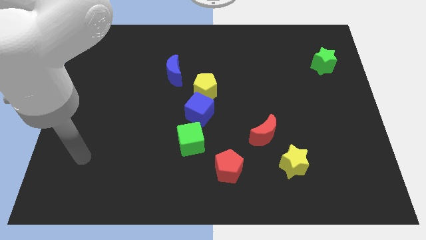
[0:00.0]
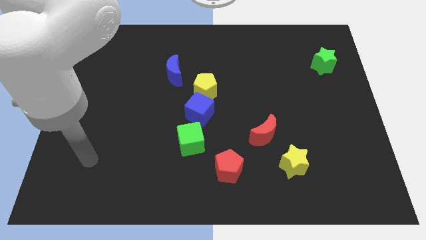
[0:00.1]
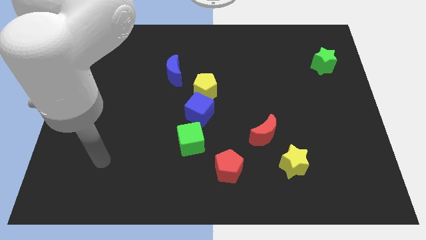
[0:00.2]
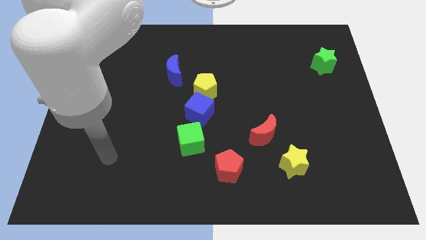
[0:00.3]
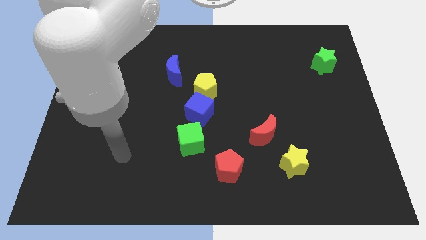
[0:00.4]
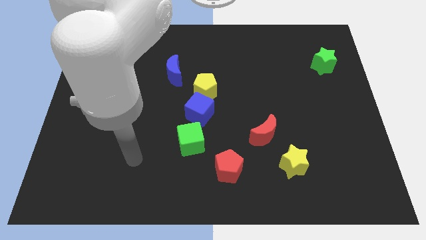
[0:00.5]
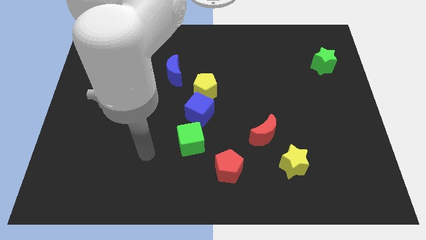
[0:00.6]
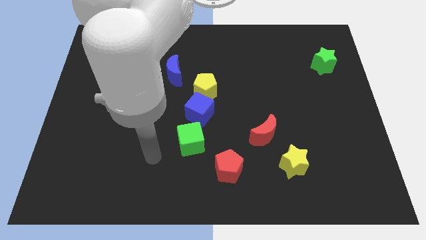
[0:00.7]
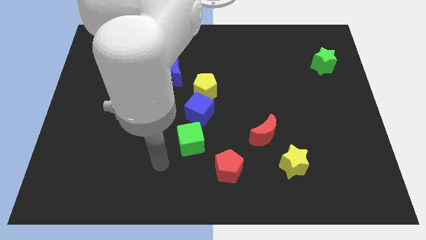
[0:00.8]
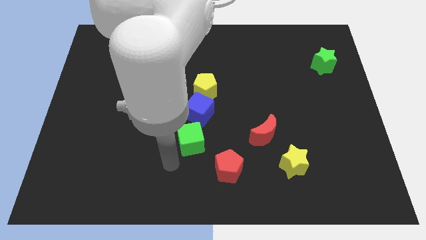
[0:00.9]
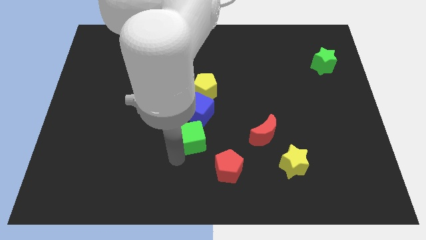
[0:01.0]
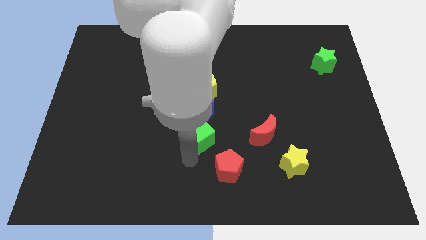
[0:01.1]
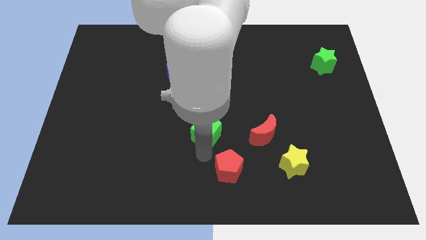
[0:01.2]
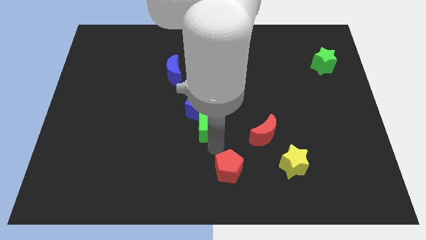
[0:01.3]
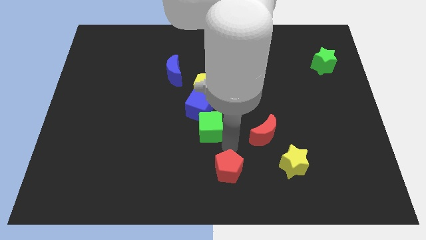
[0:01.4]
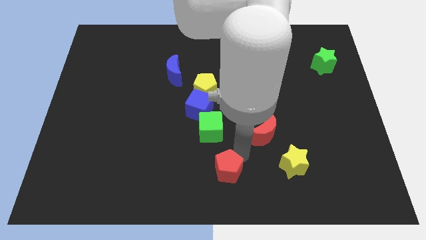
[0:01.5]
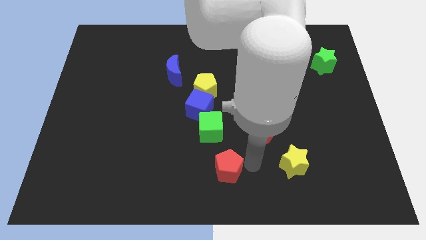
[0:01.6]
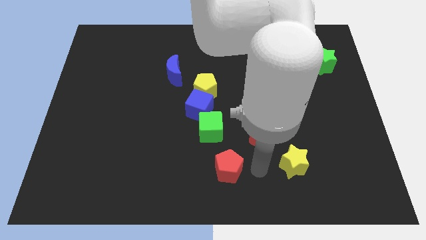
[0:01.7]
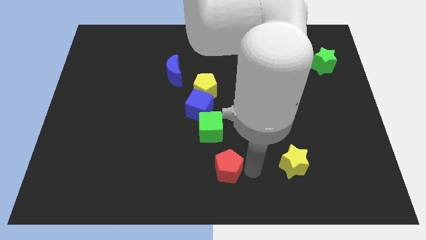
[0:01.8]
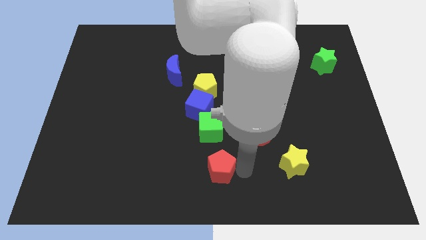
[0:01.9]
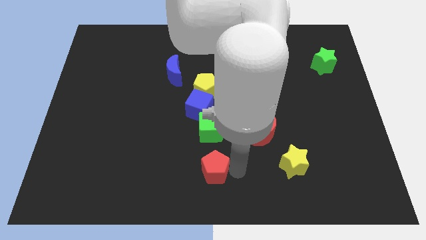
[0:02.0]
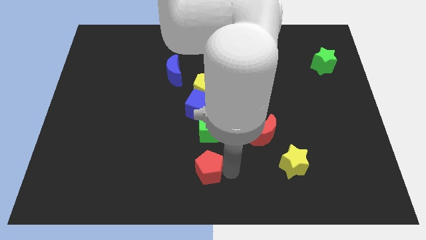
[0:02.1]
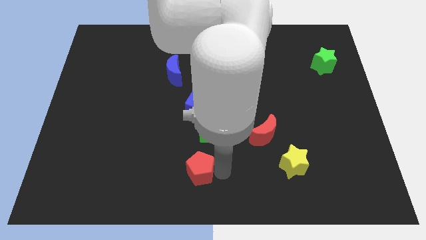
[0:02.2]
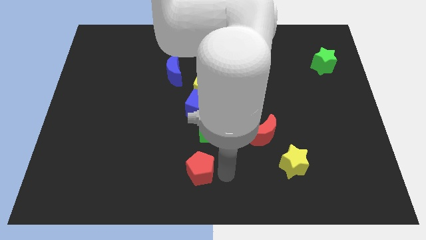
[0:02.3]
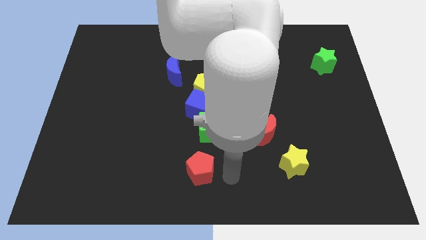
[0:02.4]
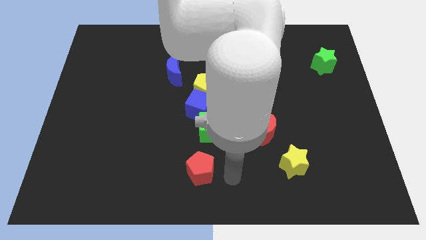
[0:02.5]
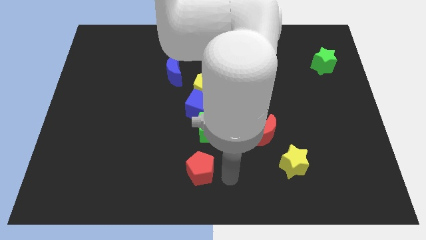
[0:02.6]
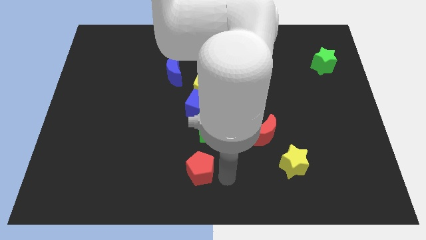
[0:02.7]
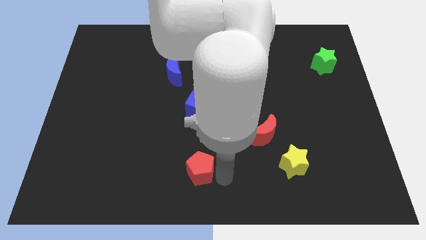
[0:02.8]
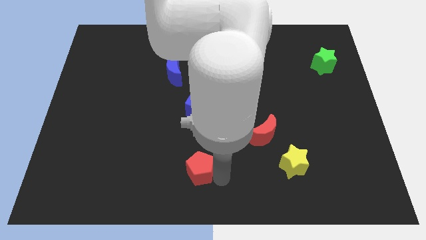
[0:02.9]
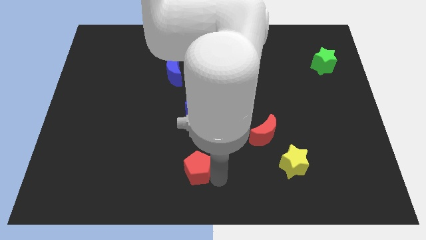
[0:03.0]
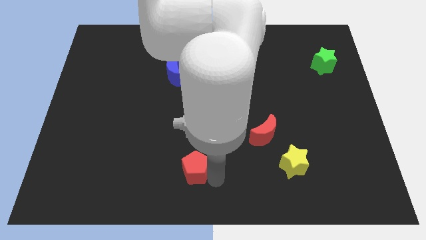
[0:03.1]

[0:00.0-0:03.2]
slightly move the red pentagon left

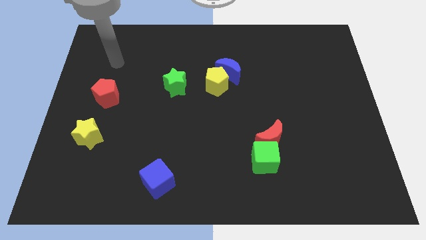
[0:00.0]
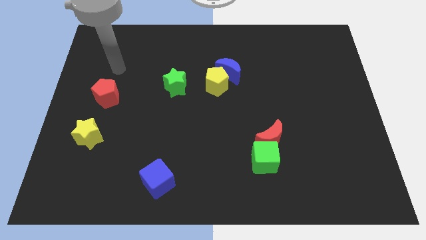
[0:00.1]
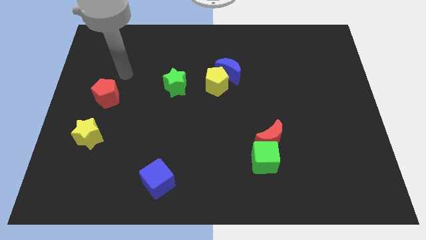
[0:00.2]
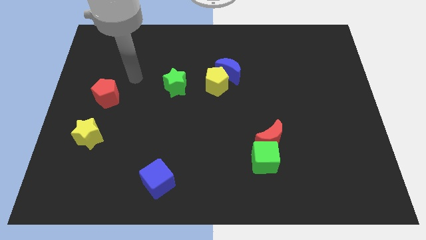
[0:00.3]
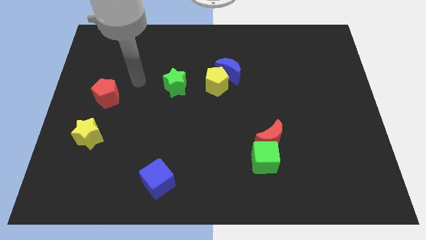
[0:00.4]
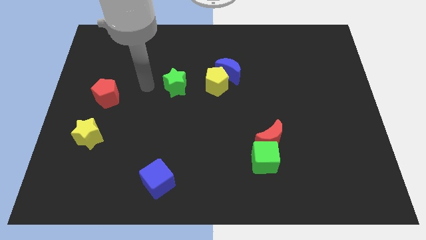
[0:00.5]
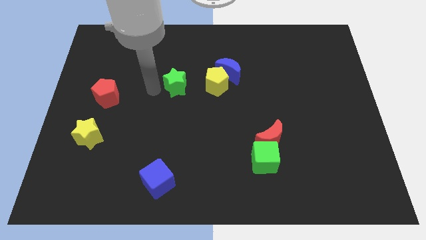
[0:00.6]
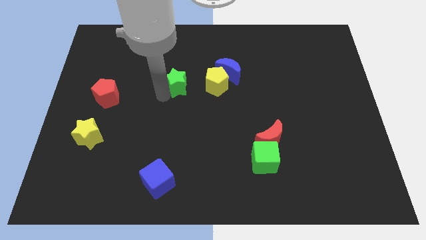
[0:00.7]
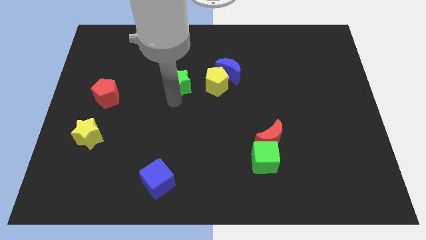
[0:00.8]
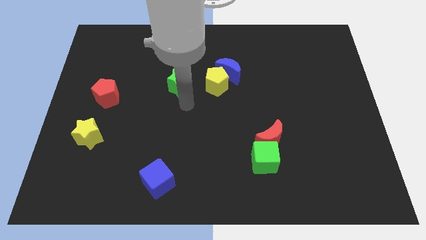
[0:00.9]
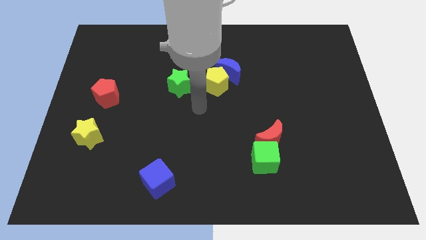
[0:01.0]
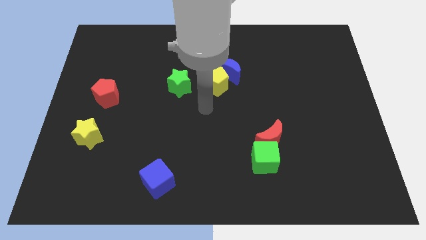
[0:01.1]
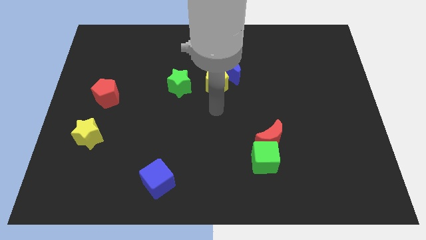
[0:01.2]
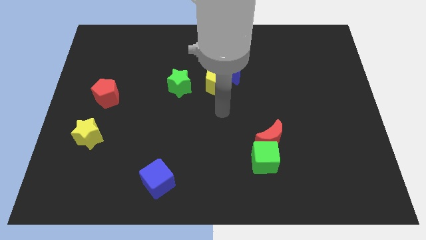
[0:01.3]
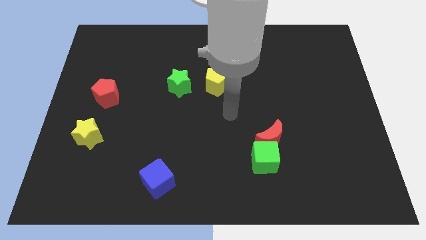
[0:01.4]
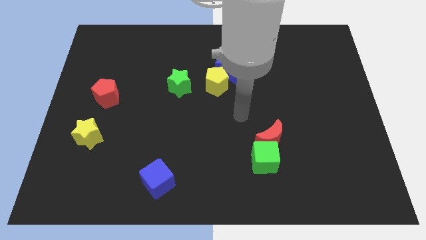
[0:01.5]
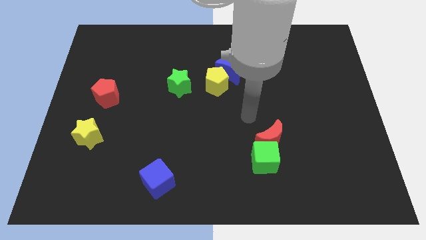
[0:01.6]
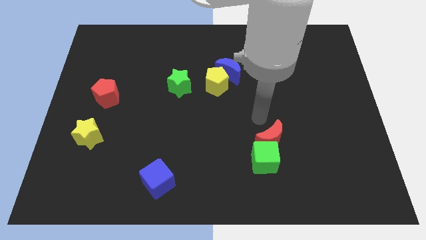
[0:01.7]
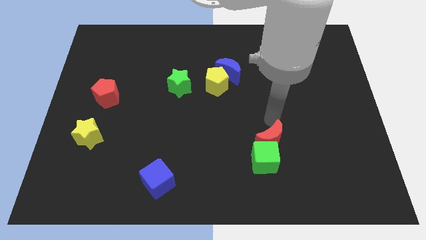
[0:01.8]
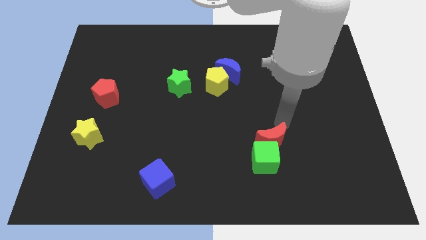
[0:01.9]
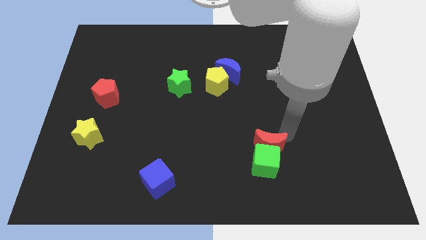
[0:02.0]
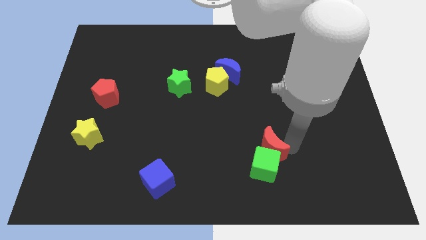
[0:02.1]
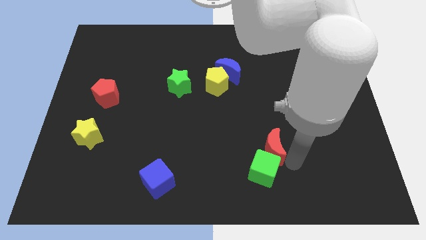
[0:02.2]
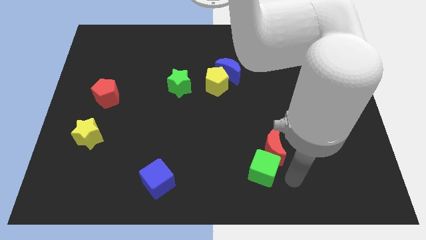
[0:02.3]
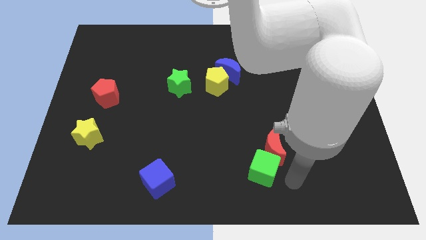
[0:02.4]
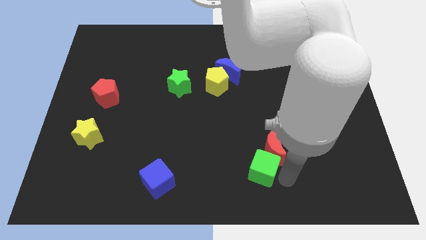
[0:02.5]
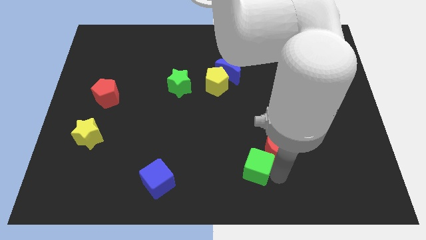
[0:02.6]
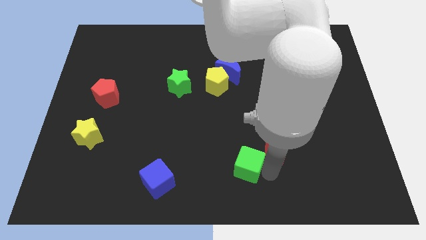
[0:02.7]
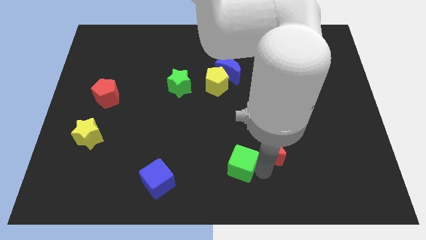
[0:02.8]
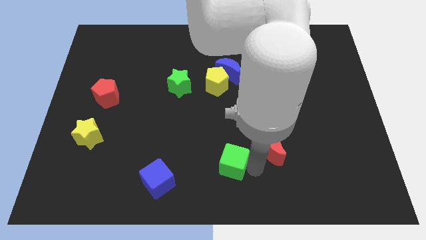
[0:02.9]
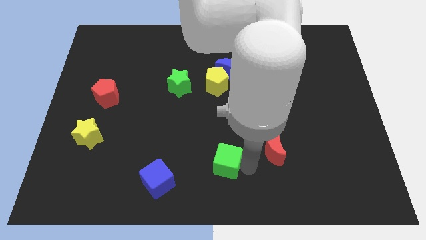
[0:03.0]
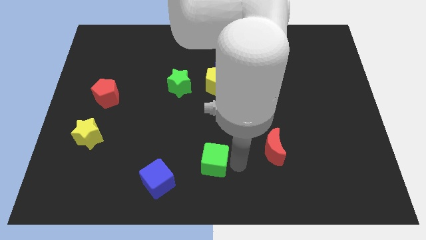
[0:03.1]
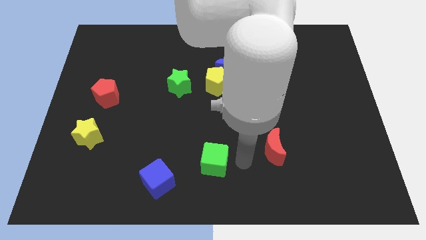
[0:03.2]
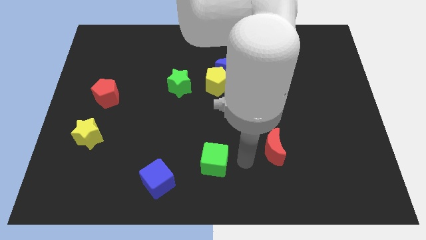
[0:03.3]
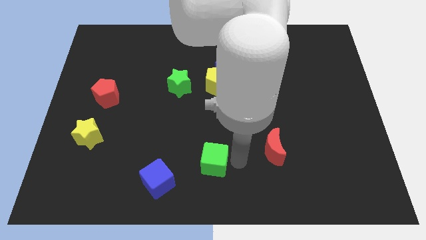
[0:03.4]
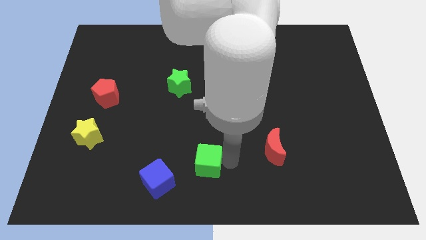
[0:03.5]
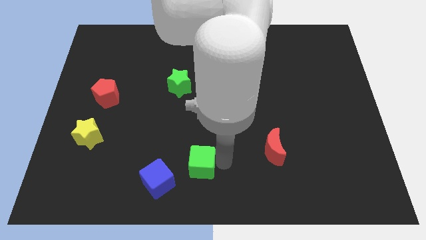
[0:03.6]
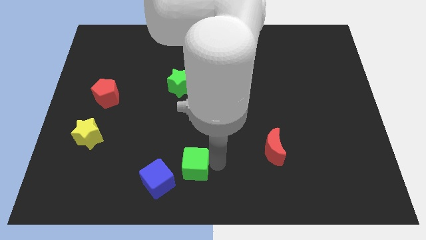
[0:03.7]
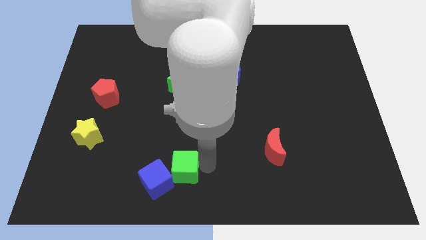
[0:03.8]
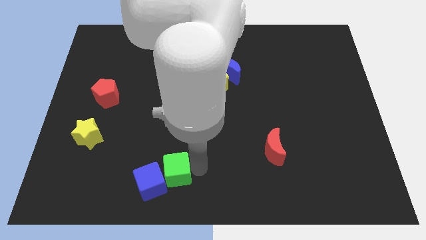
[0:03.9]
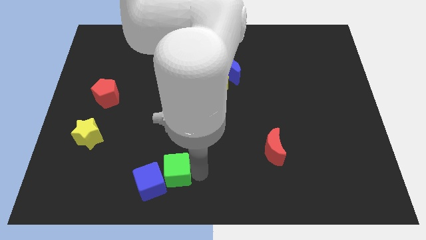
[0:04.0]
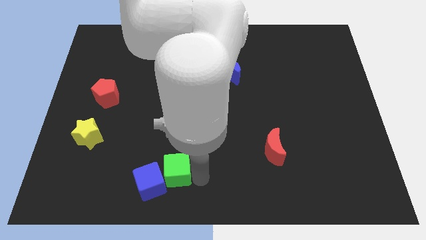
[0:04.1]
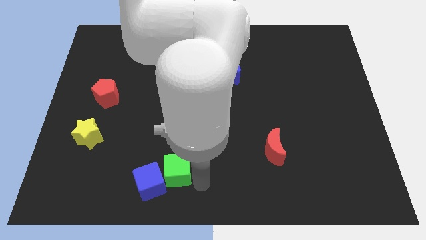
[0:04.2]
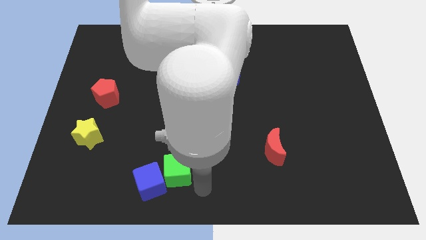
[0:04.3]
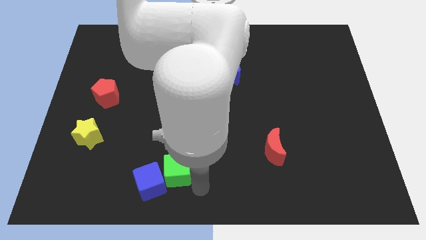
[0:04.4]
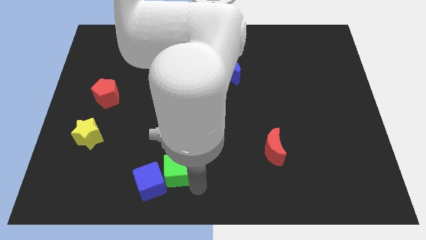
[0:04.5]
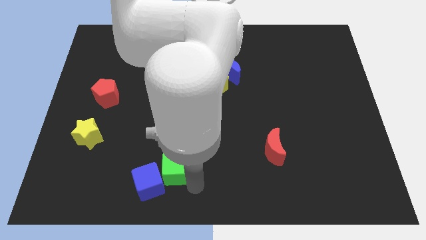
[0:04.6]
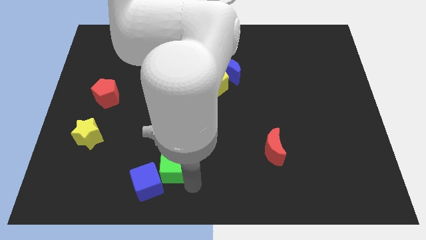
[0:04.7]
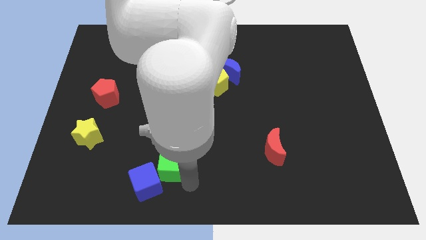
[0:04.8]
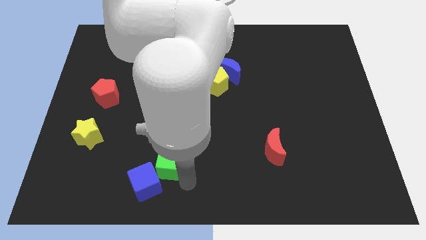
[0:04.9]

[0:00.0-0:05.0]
push the green cube to the left
